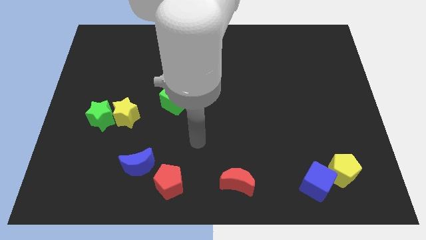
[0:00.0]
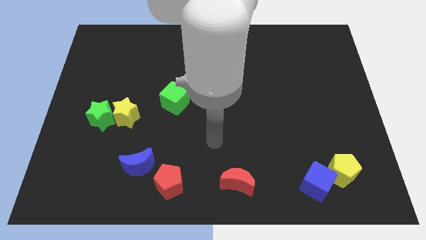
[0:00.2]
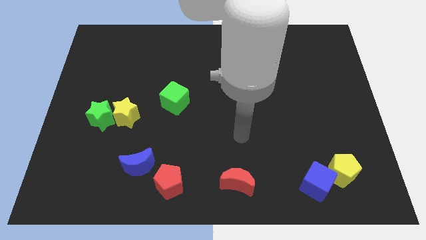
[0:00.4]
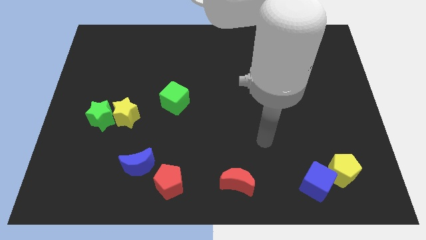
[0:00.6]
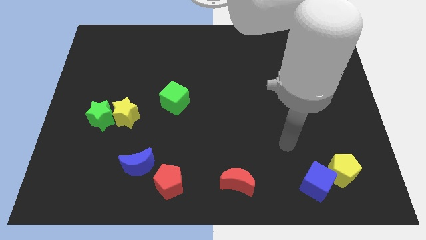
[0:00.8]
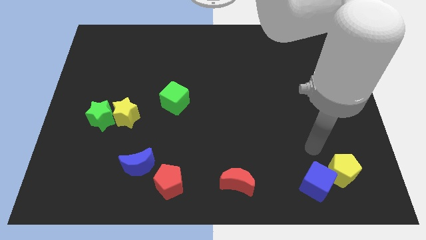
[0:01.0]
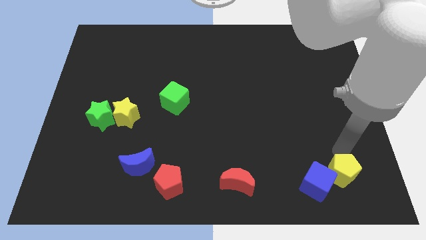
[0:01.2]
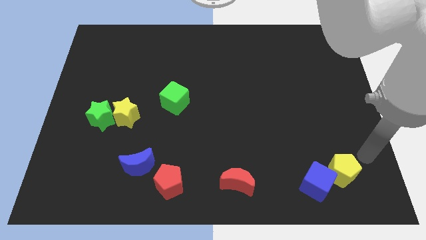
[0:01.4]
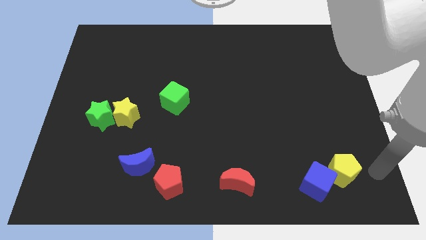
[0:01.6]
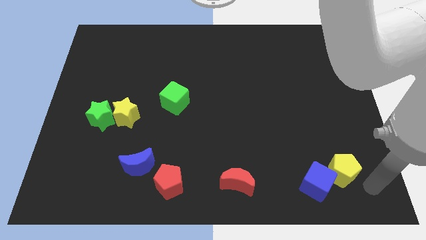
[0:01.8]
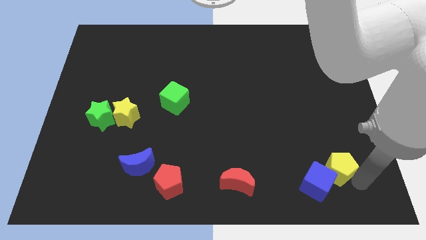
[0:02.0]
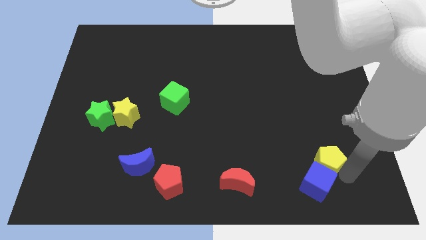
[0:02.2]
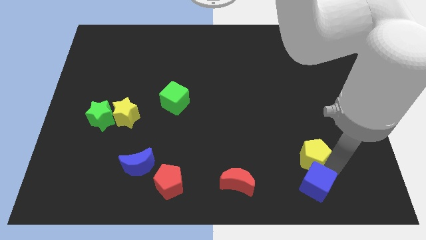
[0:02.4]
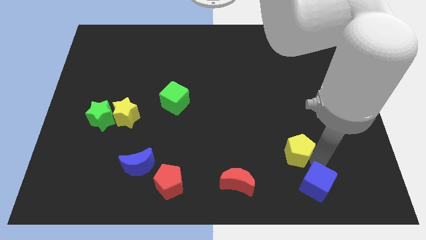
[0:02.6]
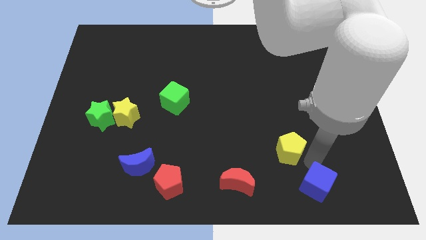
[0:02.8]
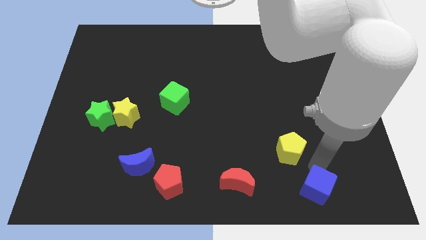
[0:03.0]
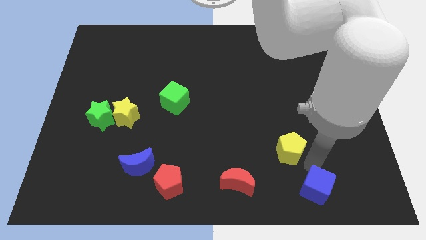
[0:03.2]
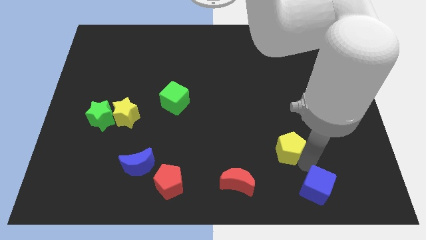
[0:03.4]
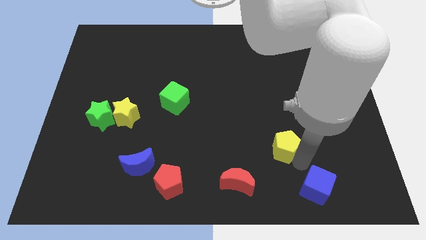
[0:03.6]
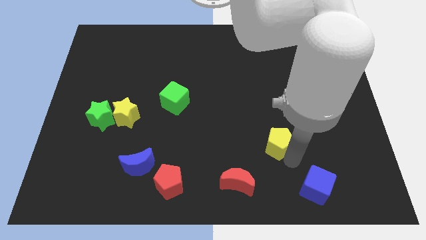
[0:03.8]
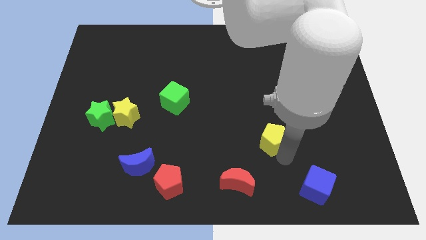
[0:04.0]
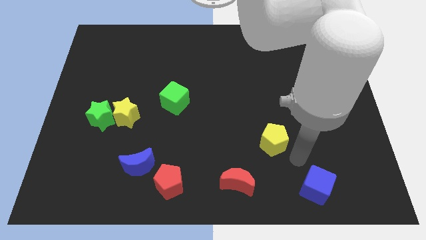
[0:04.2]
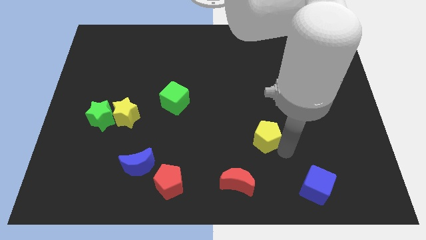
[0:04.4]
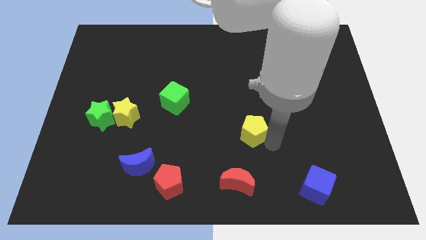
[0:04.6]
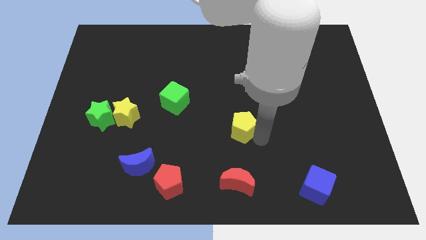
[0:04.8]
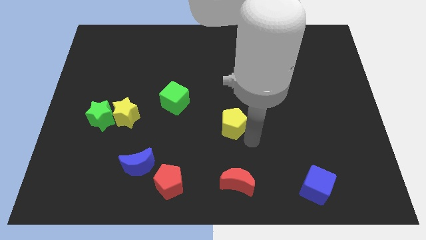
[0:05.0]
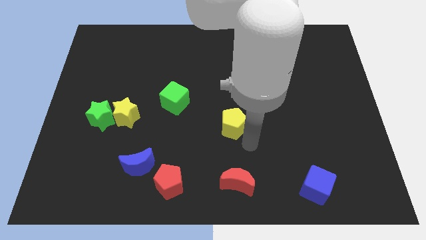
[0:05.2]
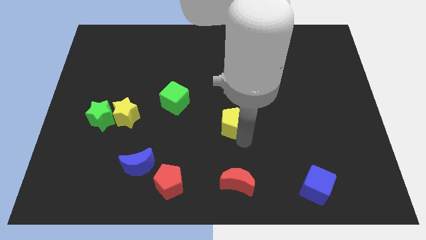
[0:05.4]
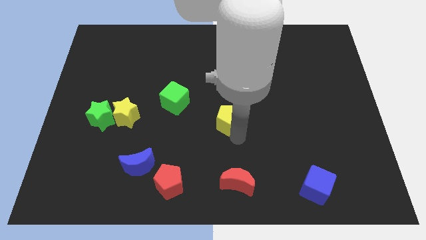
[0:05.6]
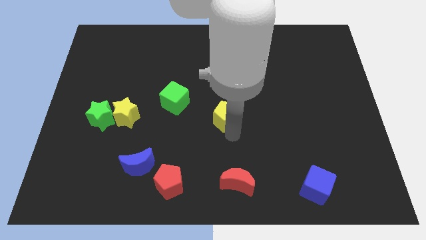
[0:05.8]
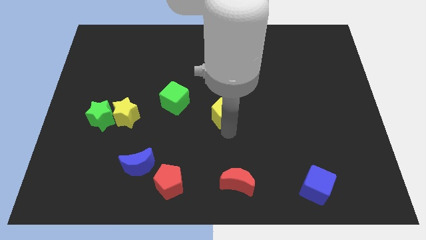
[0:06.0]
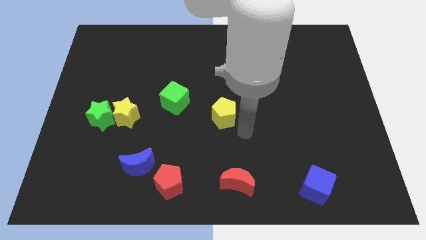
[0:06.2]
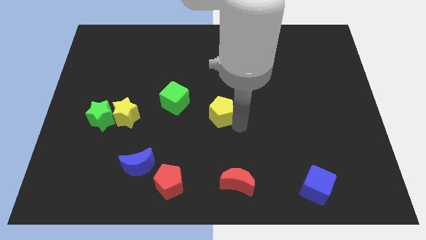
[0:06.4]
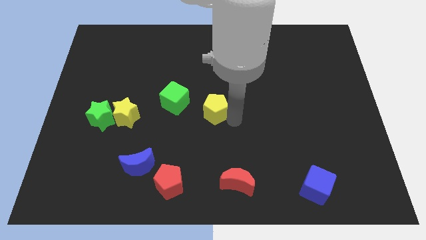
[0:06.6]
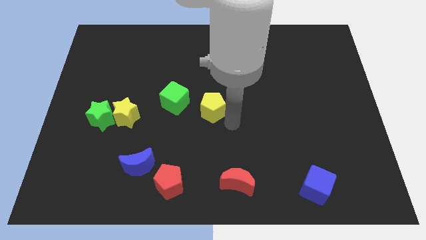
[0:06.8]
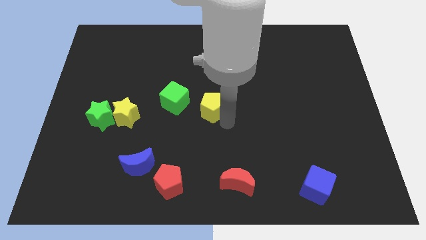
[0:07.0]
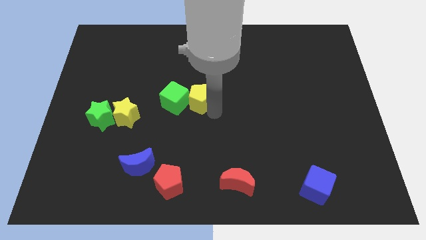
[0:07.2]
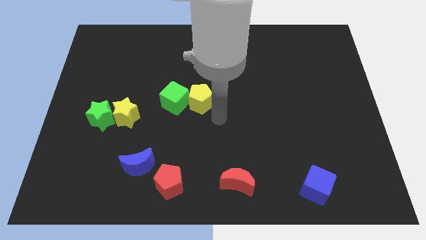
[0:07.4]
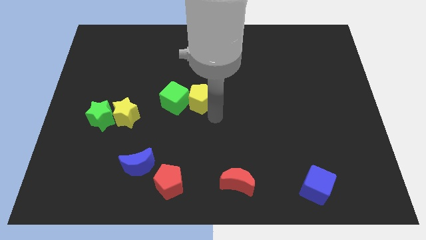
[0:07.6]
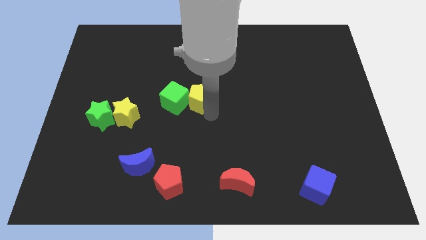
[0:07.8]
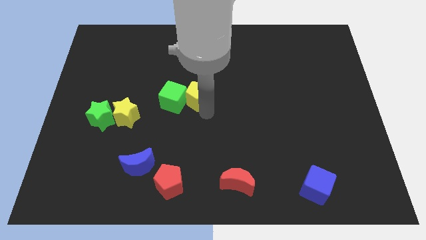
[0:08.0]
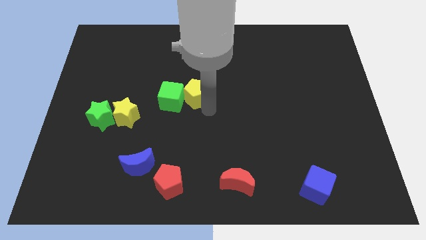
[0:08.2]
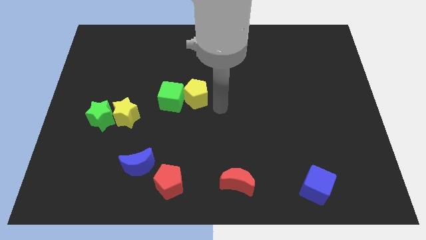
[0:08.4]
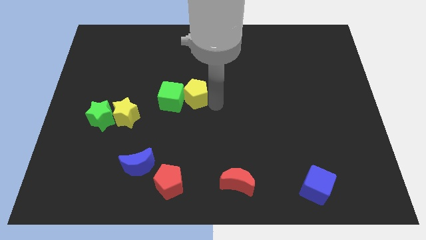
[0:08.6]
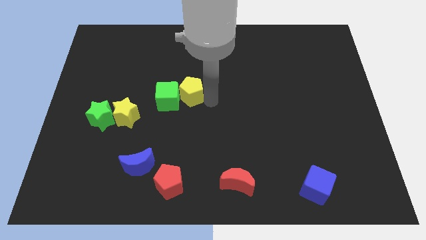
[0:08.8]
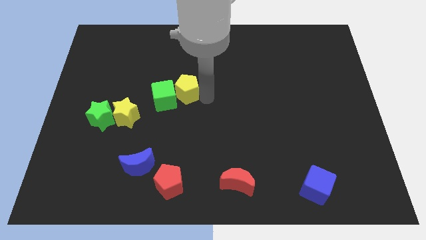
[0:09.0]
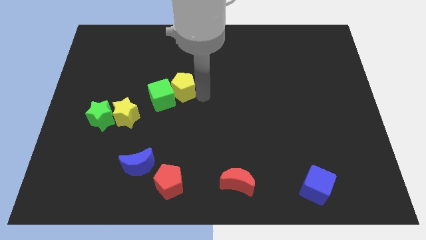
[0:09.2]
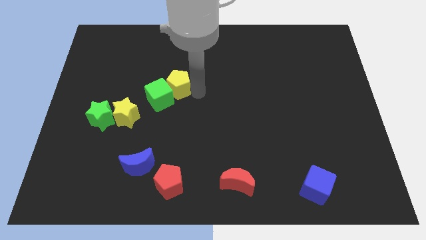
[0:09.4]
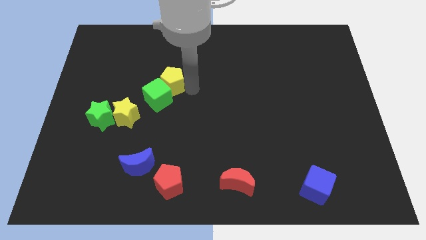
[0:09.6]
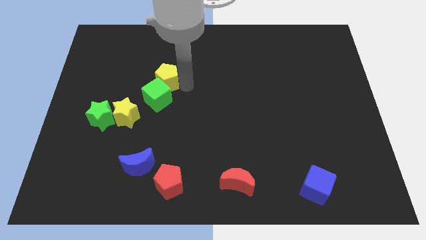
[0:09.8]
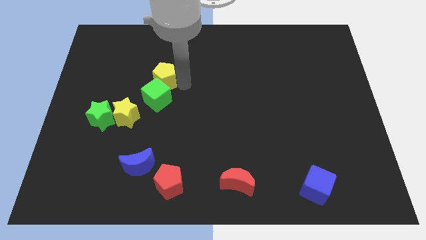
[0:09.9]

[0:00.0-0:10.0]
move the yellow pentagon to the top left side of the green cube

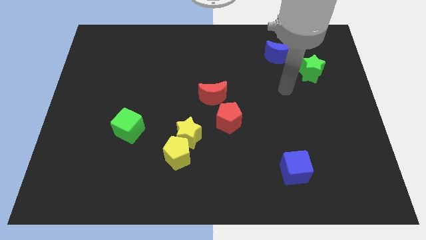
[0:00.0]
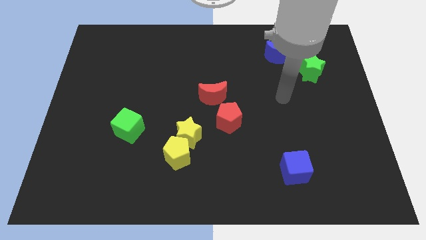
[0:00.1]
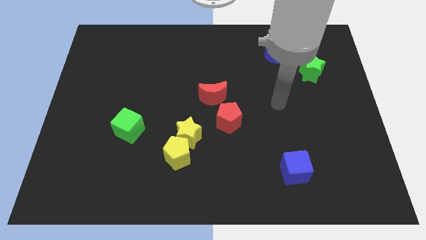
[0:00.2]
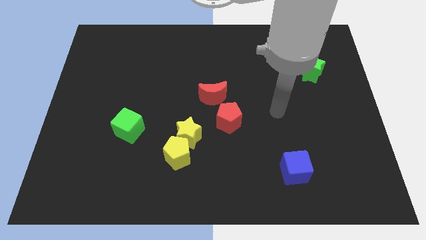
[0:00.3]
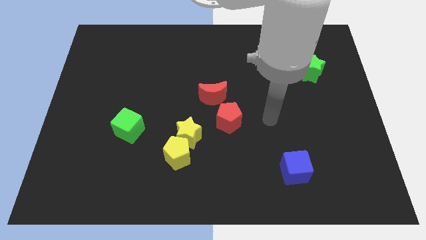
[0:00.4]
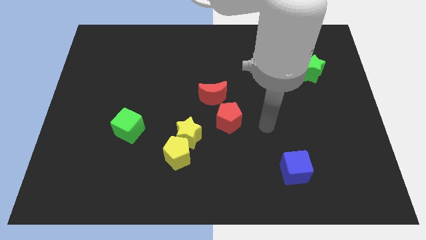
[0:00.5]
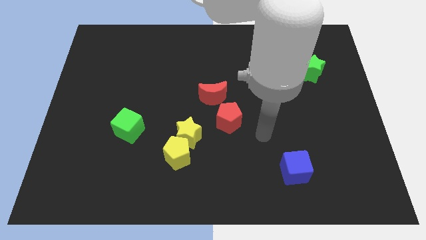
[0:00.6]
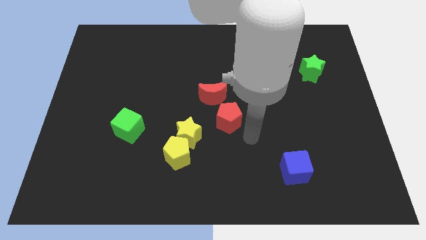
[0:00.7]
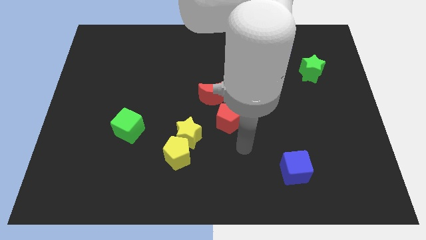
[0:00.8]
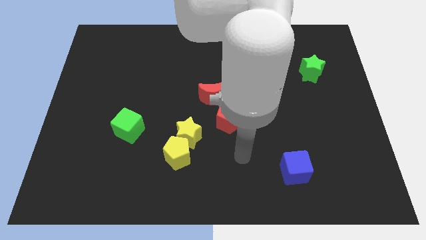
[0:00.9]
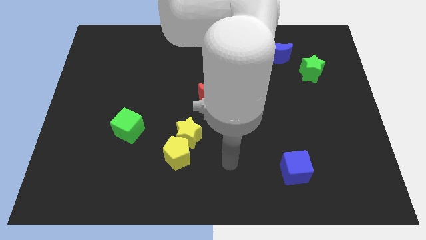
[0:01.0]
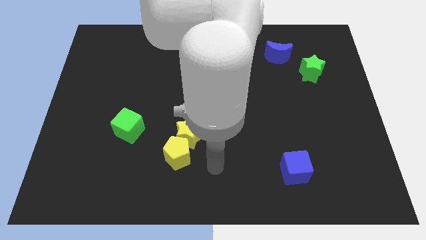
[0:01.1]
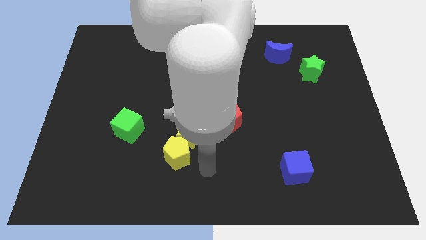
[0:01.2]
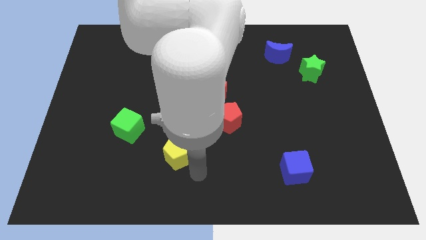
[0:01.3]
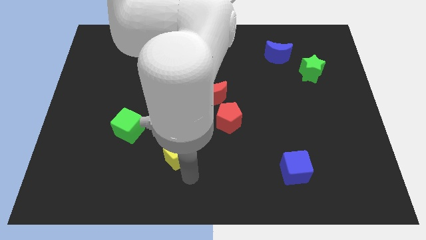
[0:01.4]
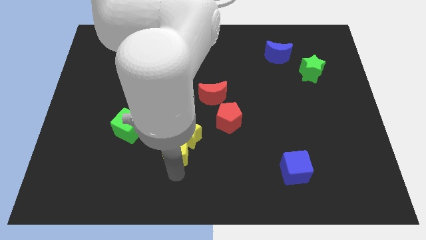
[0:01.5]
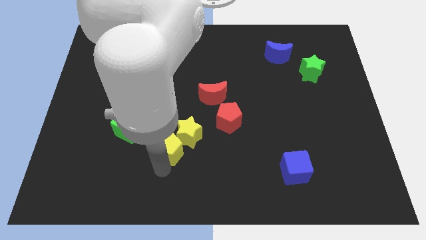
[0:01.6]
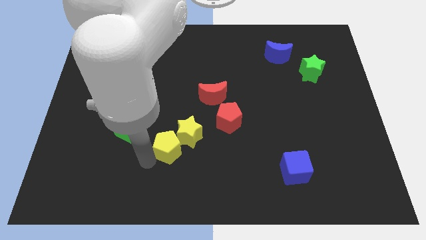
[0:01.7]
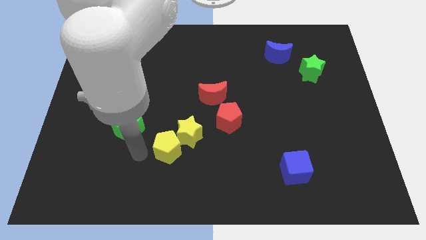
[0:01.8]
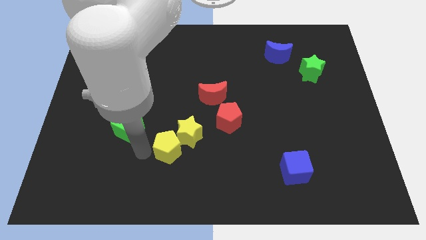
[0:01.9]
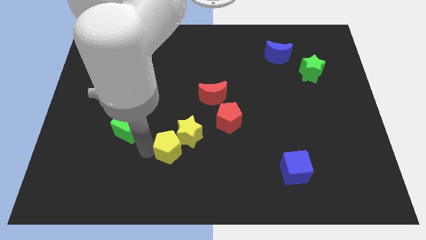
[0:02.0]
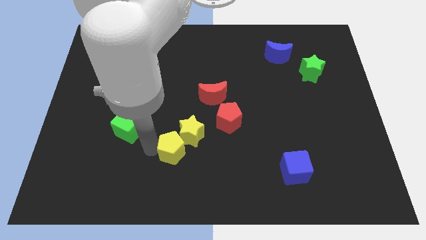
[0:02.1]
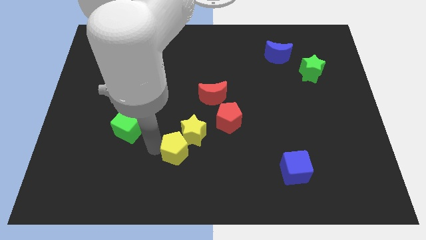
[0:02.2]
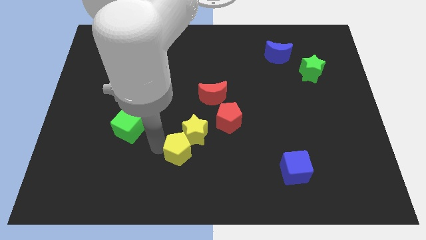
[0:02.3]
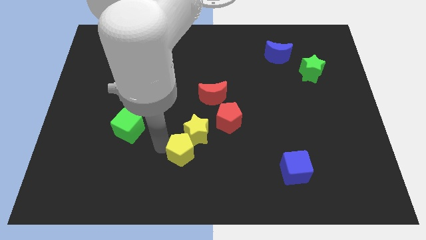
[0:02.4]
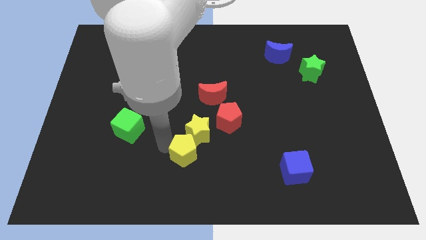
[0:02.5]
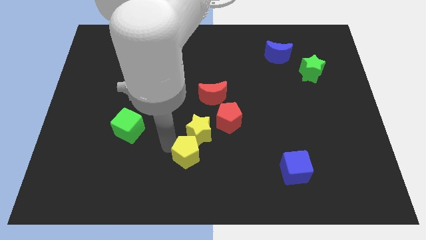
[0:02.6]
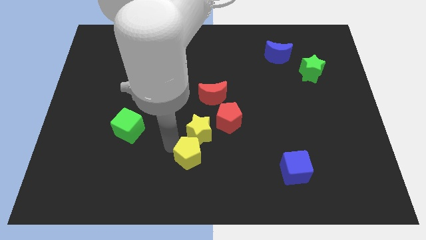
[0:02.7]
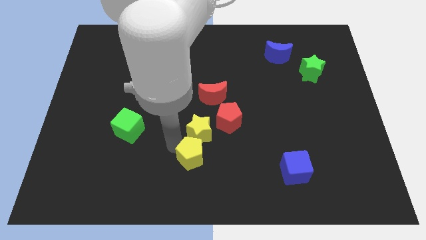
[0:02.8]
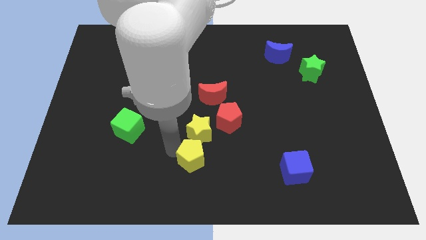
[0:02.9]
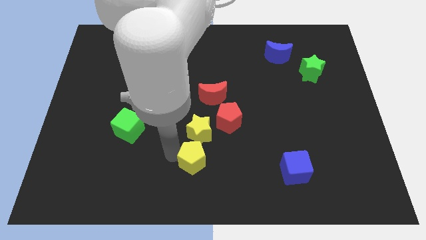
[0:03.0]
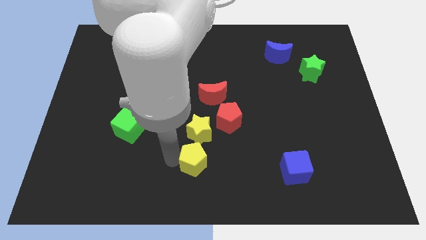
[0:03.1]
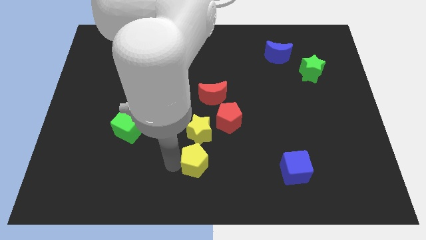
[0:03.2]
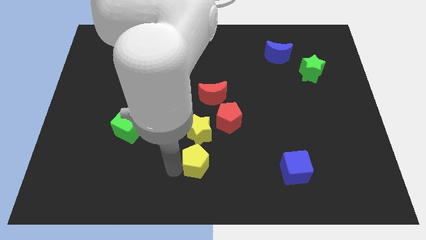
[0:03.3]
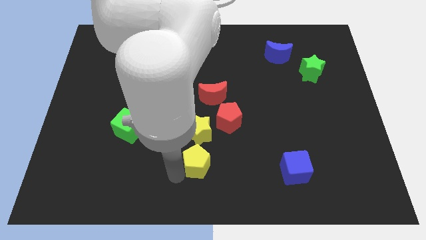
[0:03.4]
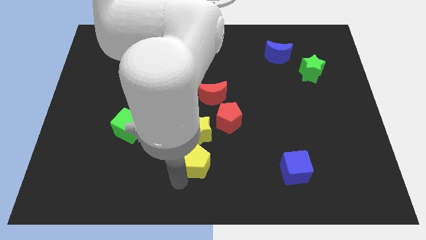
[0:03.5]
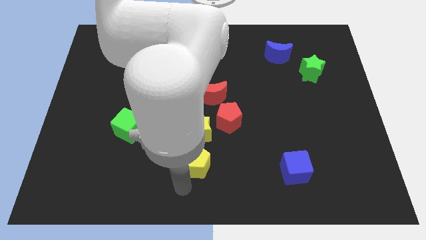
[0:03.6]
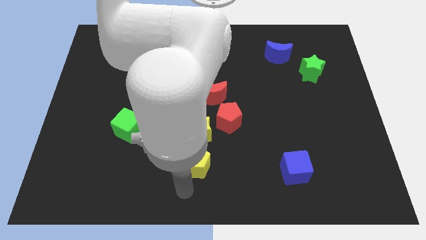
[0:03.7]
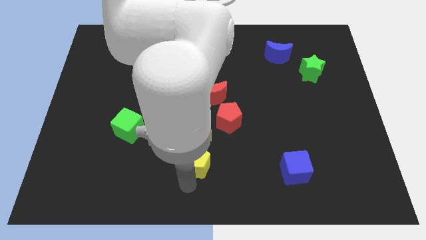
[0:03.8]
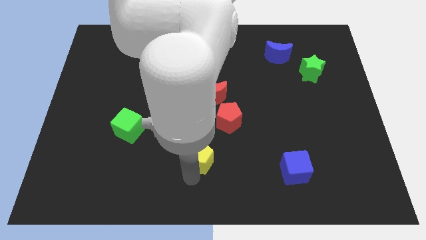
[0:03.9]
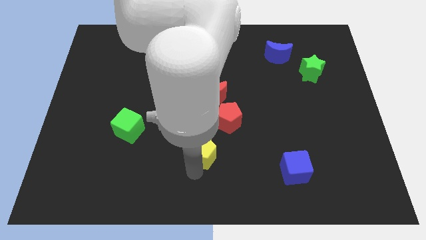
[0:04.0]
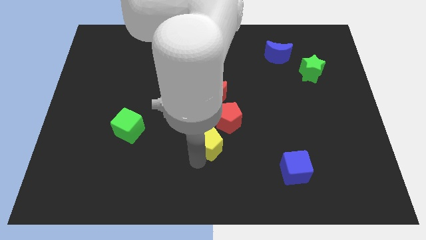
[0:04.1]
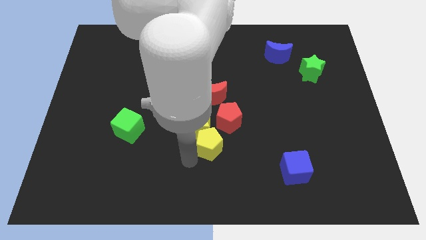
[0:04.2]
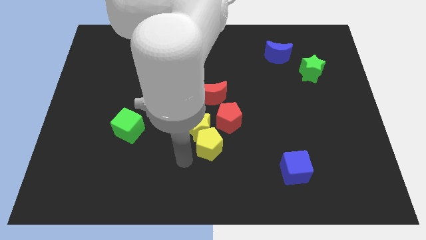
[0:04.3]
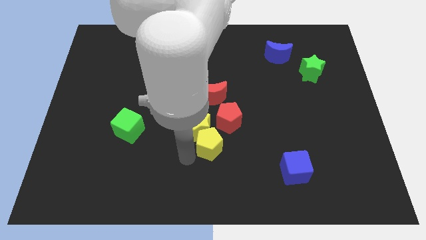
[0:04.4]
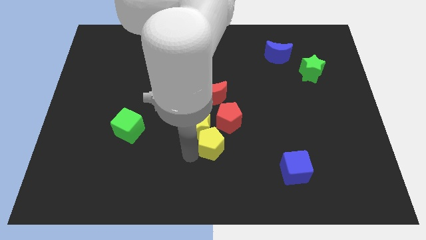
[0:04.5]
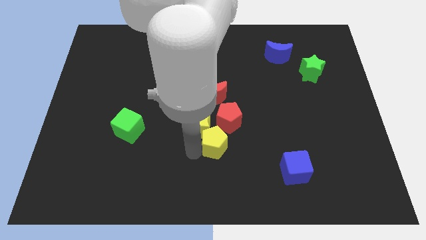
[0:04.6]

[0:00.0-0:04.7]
move the yellow pentagon right of the yellow star
